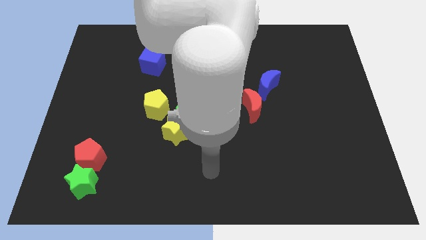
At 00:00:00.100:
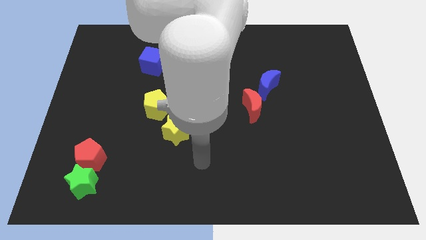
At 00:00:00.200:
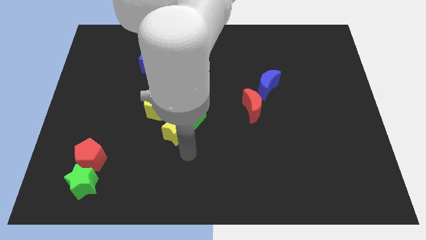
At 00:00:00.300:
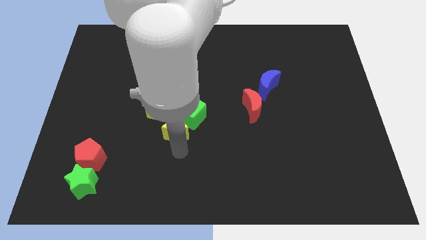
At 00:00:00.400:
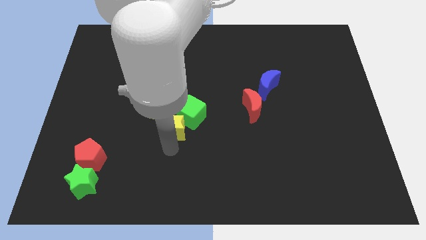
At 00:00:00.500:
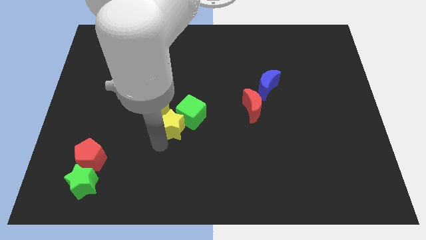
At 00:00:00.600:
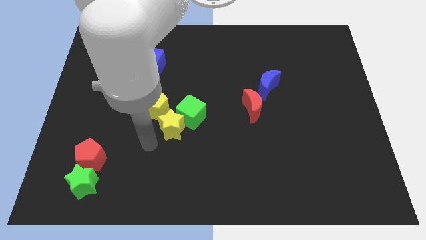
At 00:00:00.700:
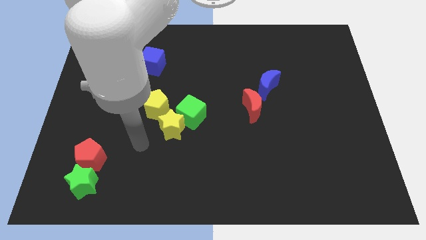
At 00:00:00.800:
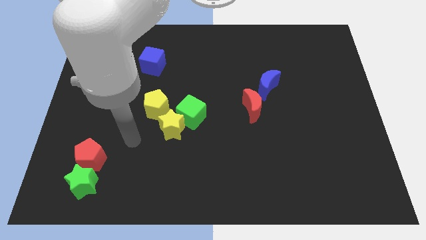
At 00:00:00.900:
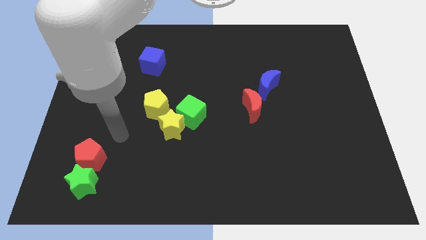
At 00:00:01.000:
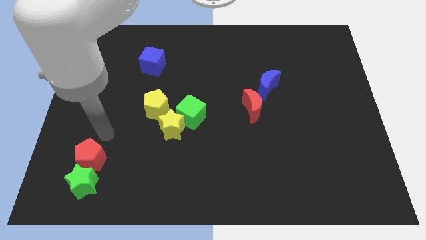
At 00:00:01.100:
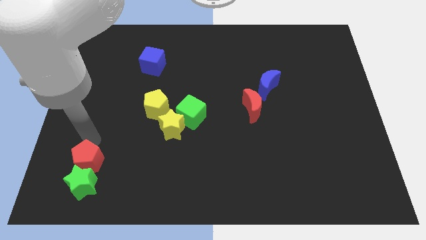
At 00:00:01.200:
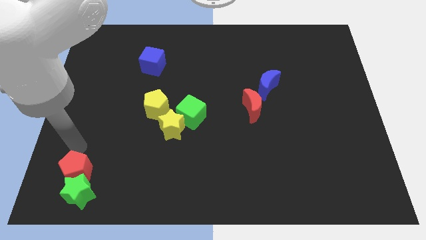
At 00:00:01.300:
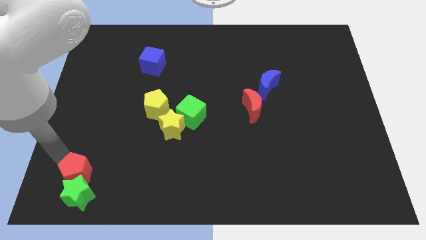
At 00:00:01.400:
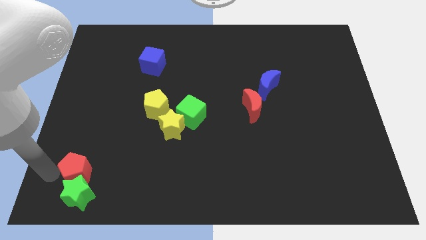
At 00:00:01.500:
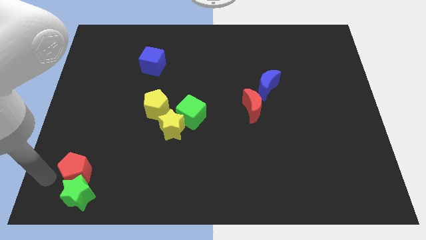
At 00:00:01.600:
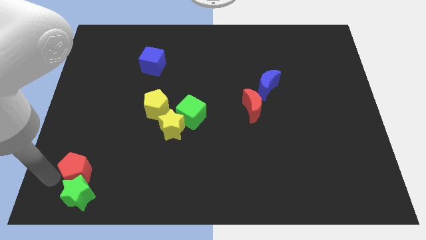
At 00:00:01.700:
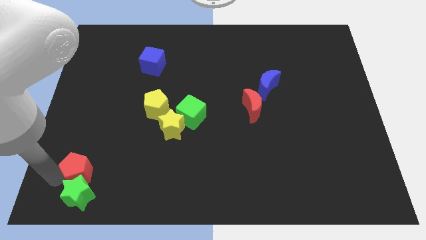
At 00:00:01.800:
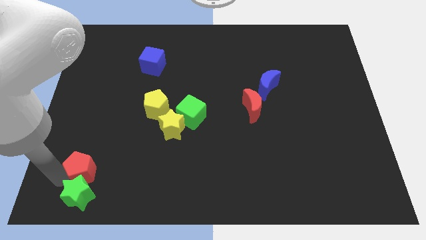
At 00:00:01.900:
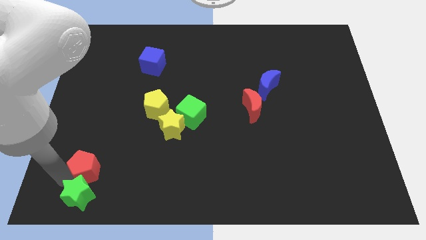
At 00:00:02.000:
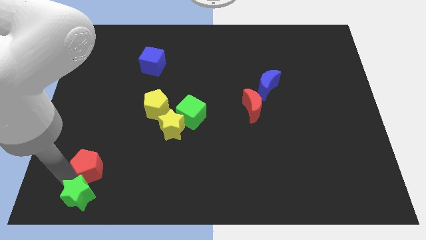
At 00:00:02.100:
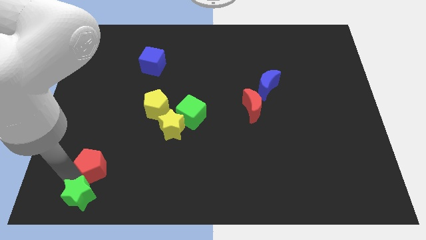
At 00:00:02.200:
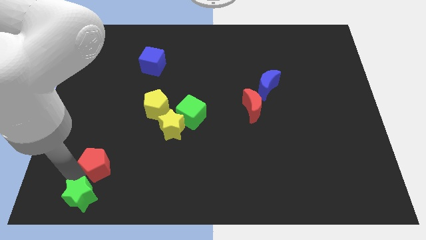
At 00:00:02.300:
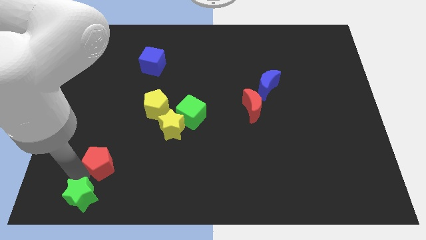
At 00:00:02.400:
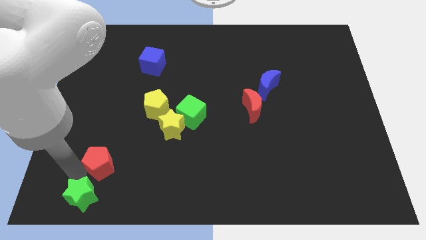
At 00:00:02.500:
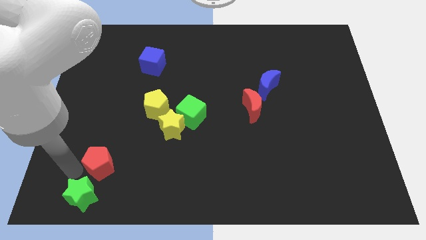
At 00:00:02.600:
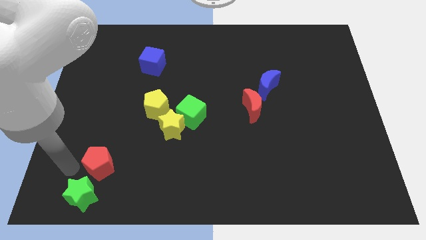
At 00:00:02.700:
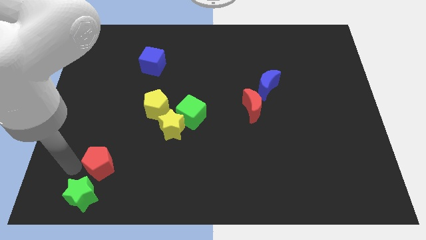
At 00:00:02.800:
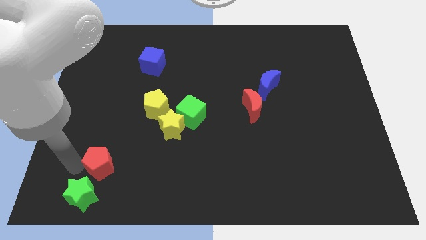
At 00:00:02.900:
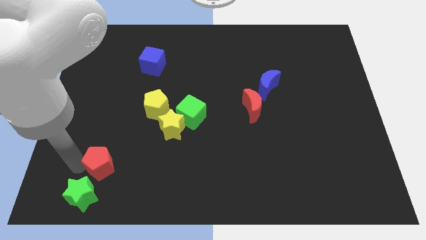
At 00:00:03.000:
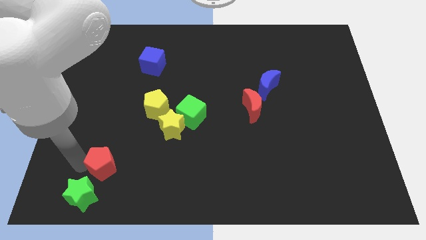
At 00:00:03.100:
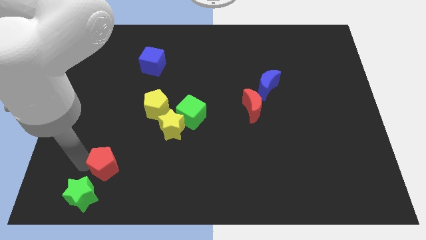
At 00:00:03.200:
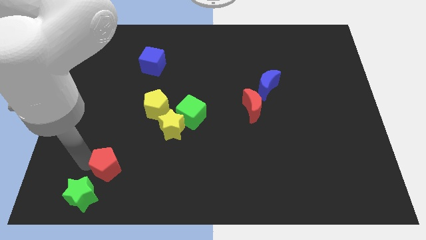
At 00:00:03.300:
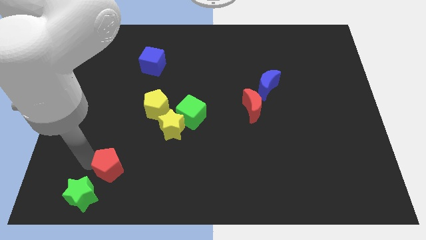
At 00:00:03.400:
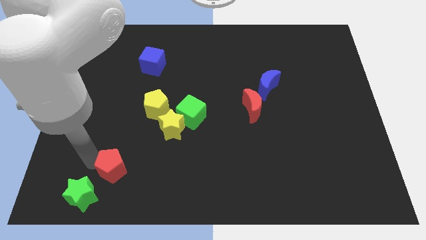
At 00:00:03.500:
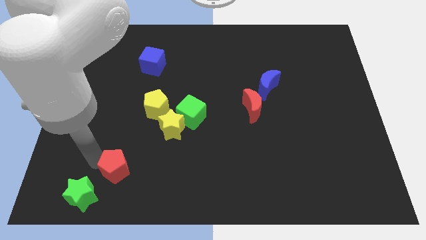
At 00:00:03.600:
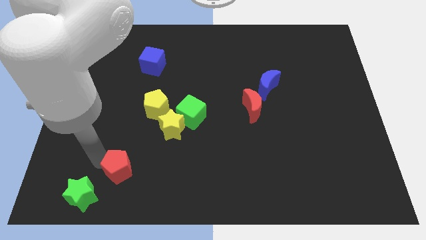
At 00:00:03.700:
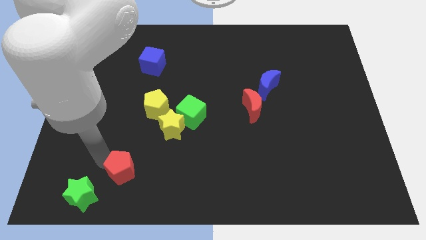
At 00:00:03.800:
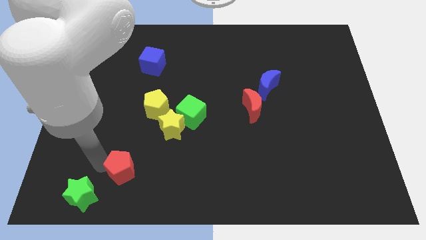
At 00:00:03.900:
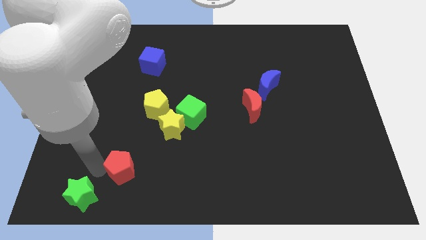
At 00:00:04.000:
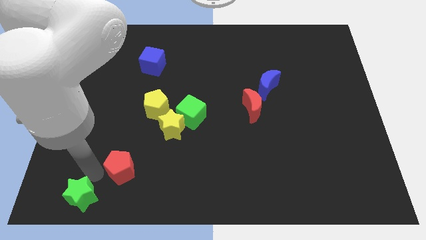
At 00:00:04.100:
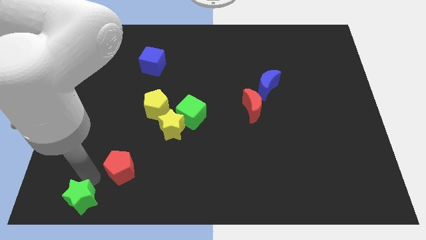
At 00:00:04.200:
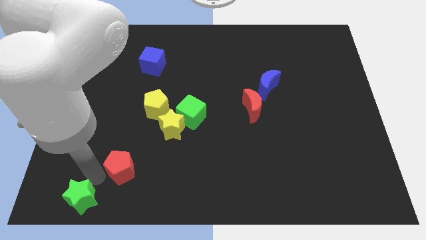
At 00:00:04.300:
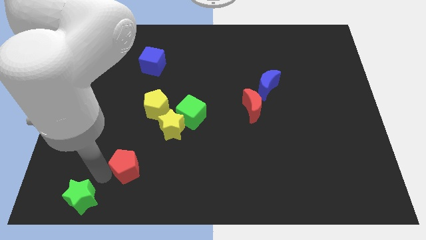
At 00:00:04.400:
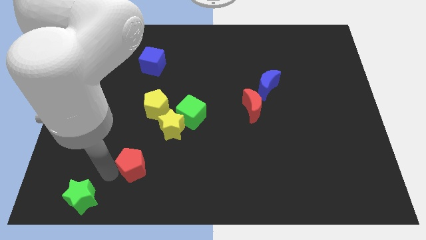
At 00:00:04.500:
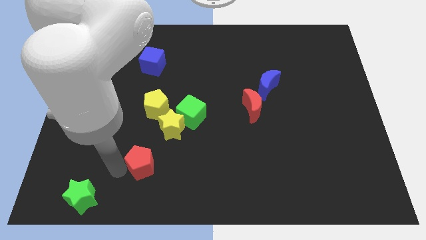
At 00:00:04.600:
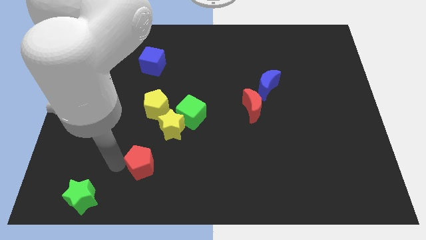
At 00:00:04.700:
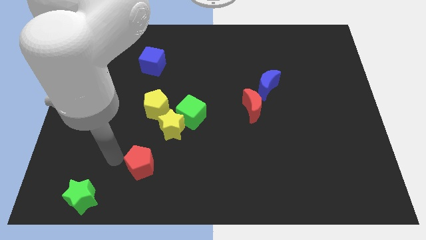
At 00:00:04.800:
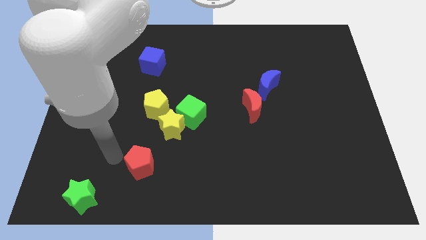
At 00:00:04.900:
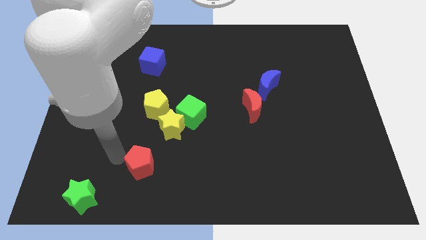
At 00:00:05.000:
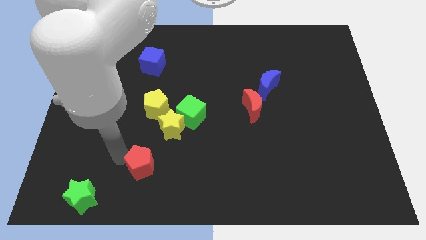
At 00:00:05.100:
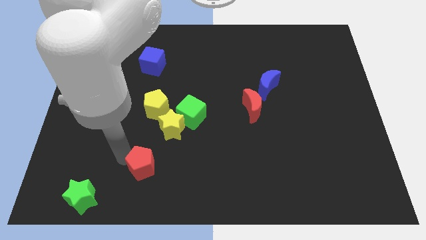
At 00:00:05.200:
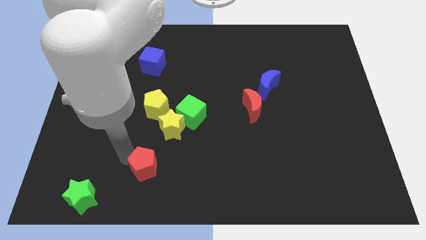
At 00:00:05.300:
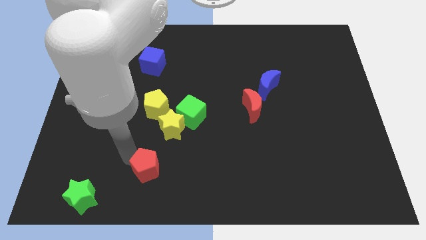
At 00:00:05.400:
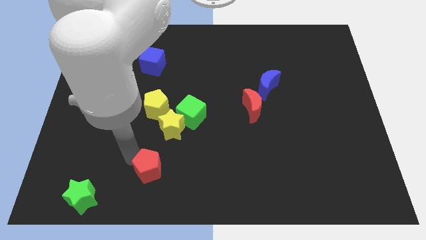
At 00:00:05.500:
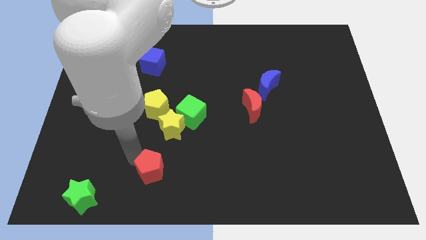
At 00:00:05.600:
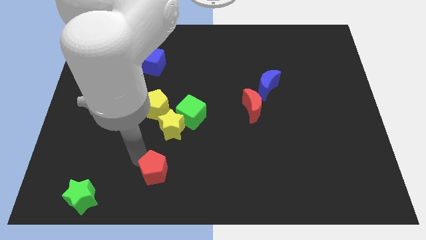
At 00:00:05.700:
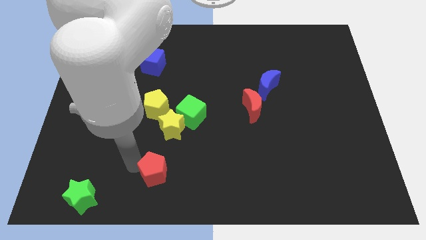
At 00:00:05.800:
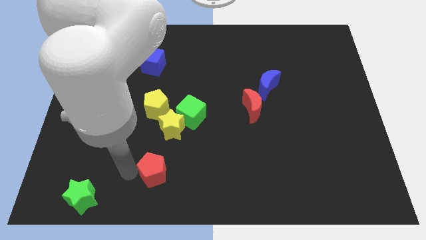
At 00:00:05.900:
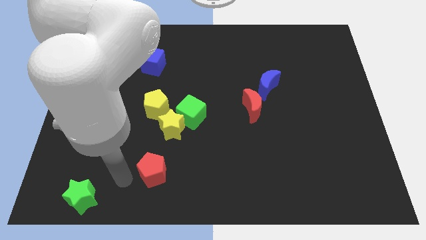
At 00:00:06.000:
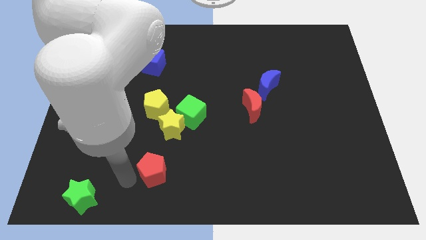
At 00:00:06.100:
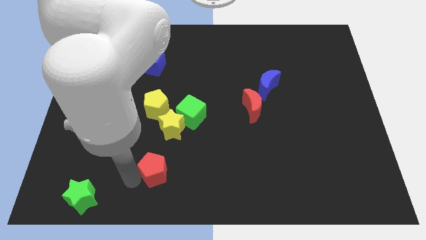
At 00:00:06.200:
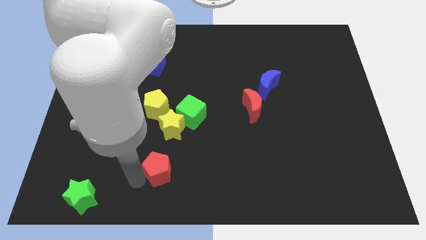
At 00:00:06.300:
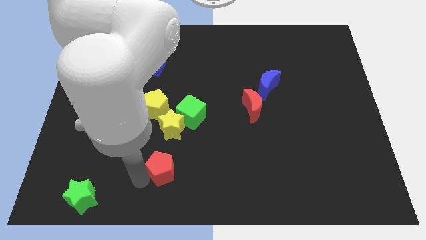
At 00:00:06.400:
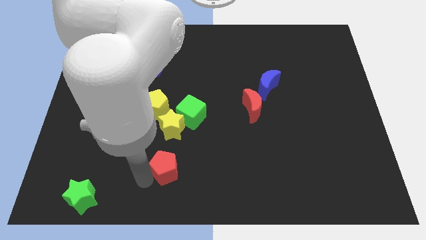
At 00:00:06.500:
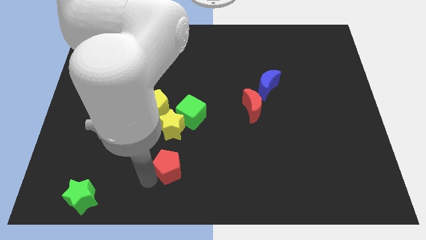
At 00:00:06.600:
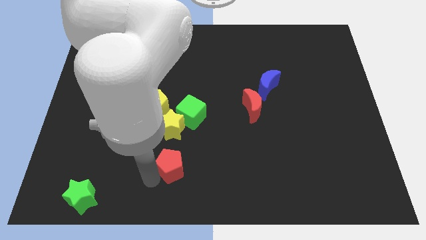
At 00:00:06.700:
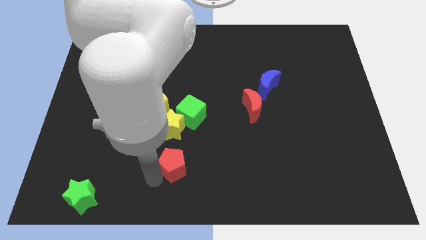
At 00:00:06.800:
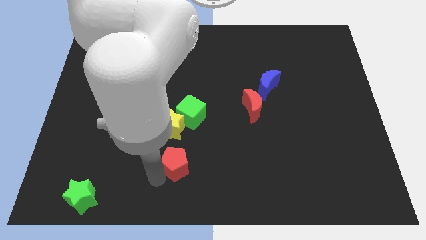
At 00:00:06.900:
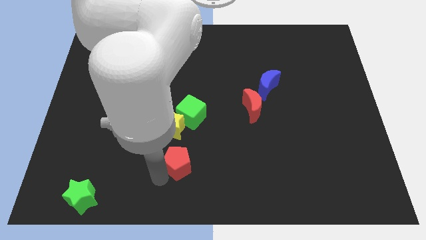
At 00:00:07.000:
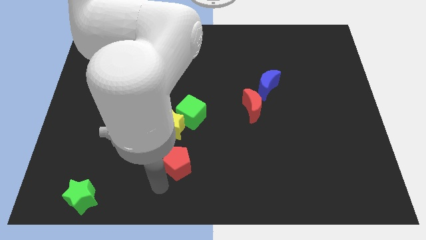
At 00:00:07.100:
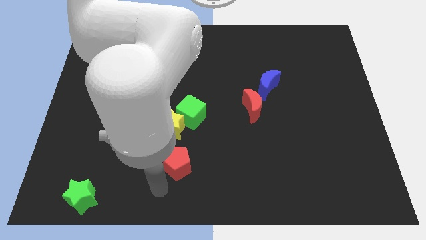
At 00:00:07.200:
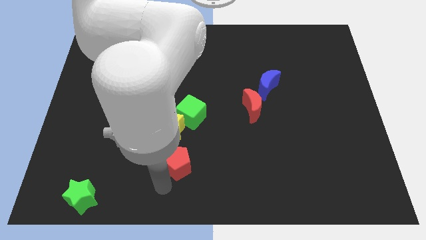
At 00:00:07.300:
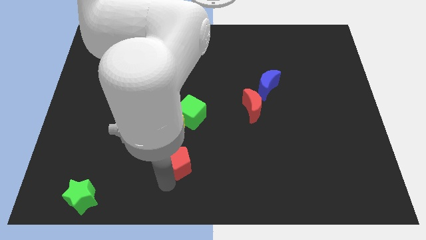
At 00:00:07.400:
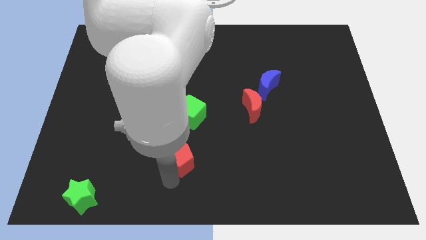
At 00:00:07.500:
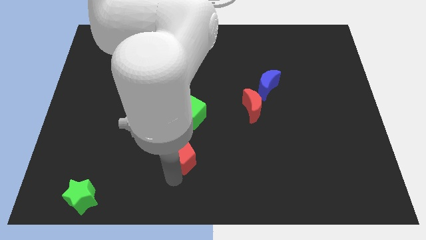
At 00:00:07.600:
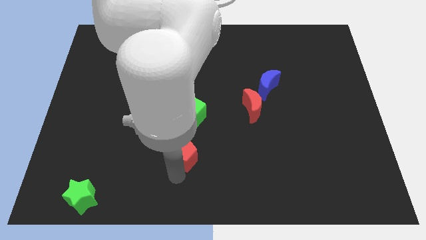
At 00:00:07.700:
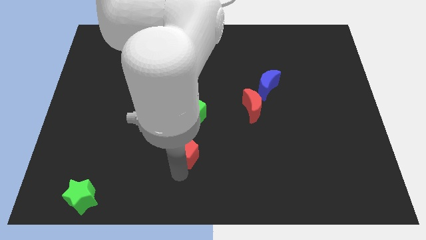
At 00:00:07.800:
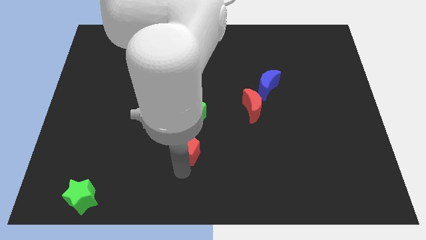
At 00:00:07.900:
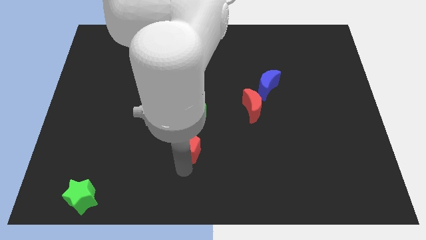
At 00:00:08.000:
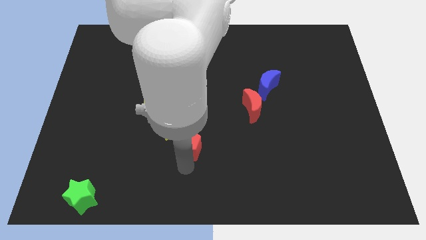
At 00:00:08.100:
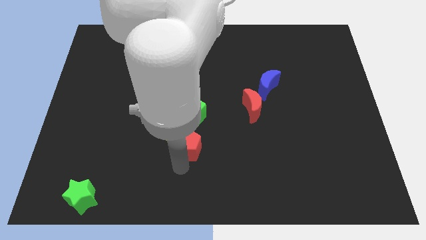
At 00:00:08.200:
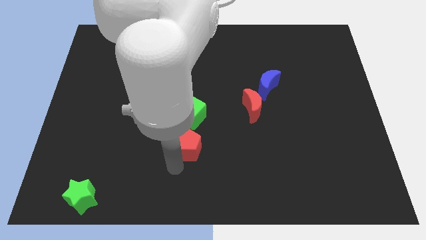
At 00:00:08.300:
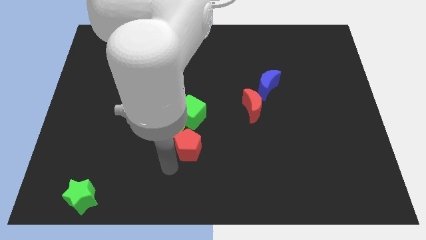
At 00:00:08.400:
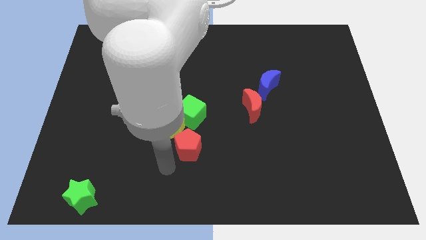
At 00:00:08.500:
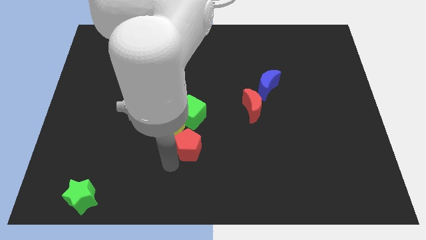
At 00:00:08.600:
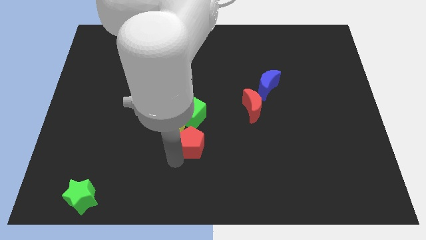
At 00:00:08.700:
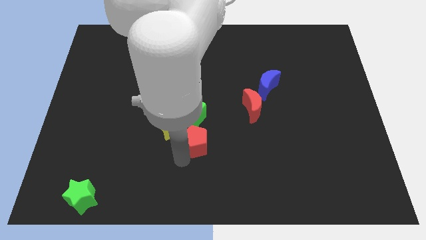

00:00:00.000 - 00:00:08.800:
push the red pentagon to the middle
